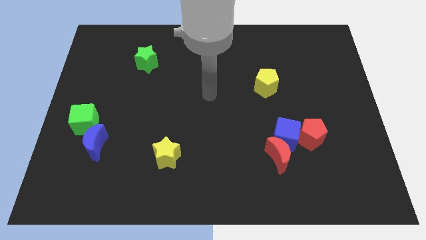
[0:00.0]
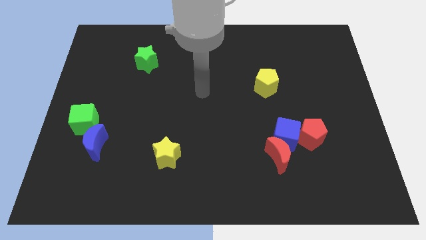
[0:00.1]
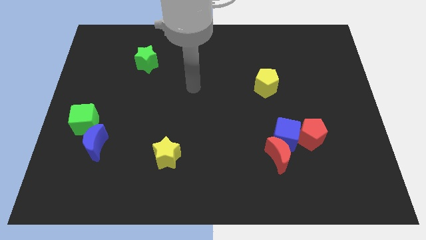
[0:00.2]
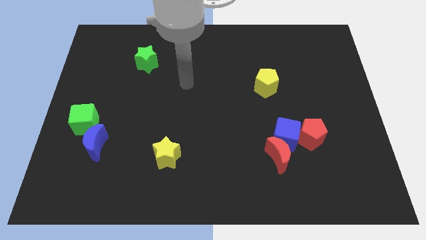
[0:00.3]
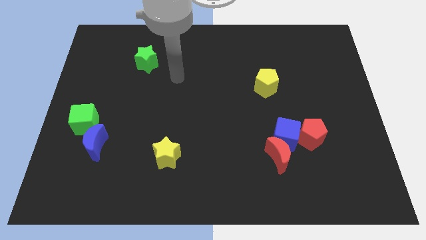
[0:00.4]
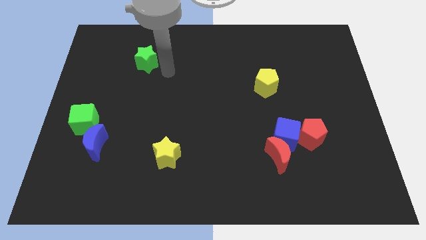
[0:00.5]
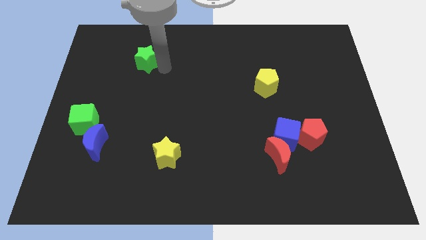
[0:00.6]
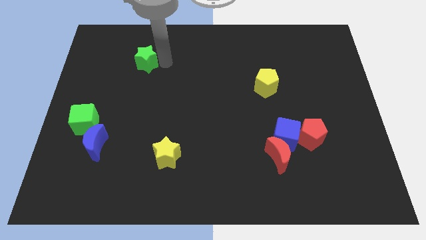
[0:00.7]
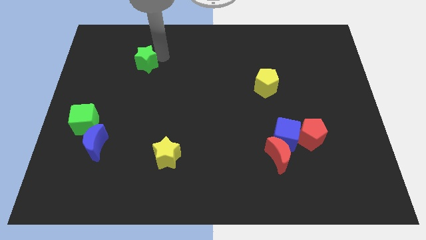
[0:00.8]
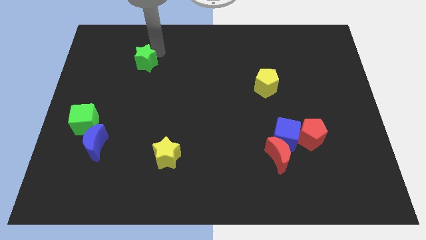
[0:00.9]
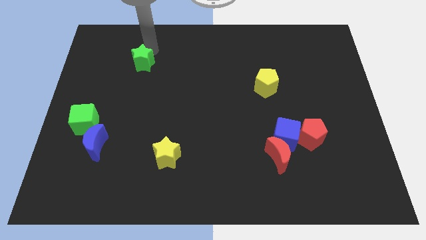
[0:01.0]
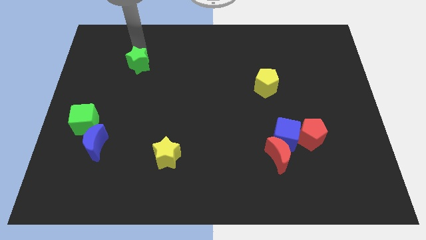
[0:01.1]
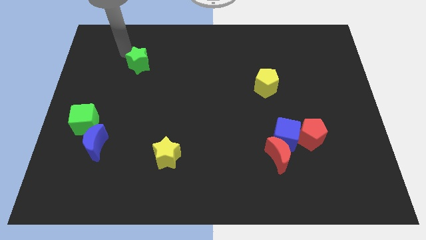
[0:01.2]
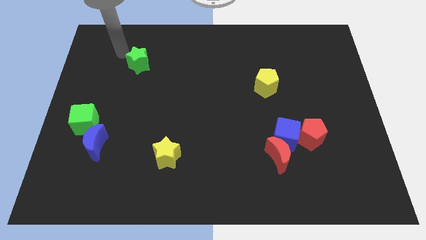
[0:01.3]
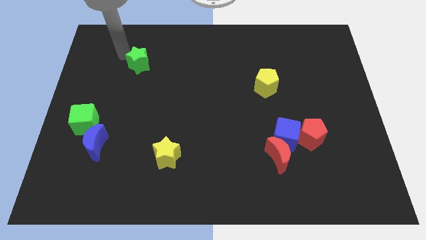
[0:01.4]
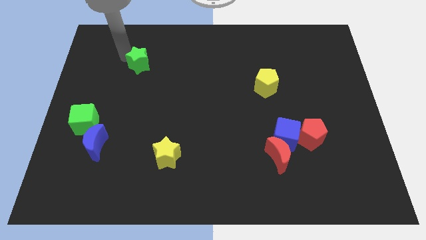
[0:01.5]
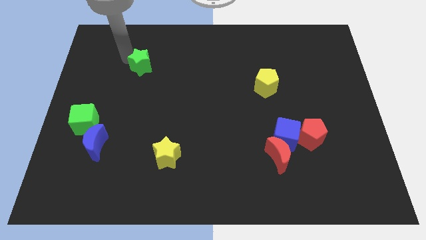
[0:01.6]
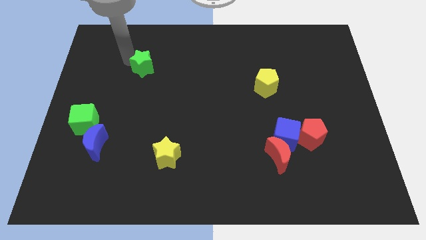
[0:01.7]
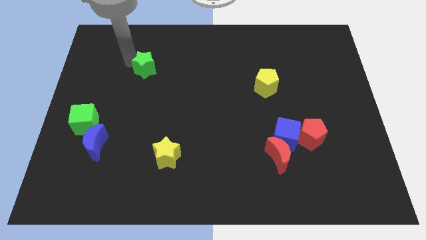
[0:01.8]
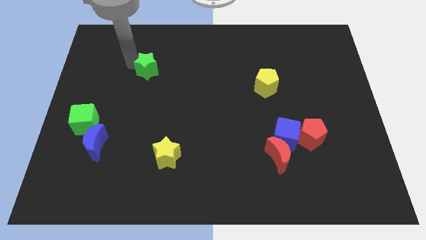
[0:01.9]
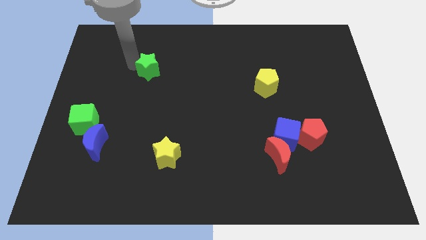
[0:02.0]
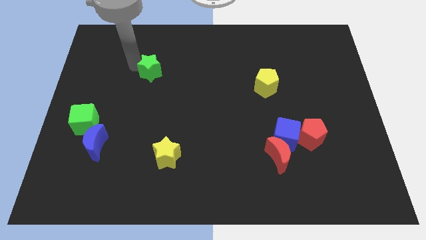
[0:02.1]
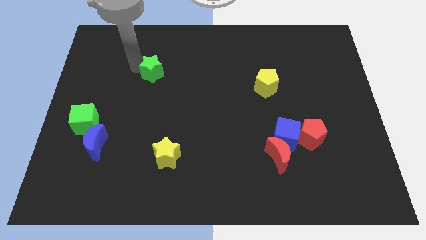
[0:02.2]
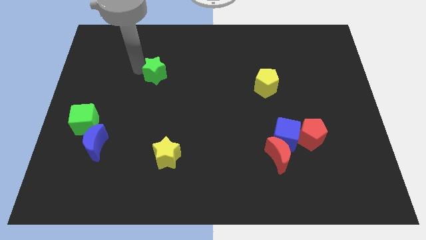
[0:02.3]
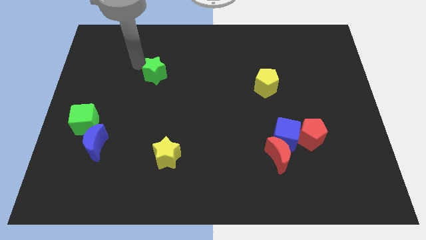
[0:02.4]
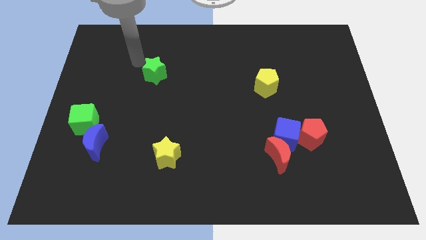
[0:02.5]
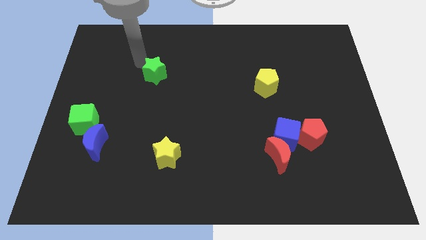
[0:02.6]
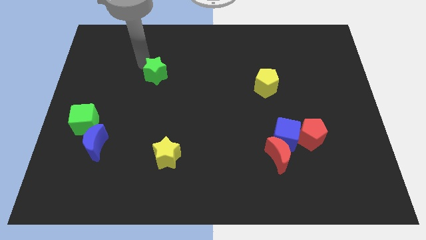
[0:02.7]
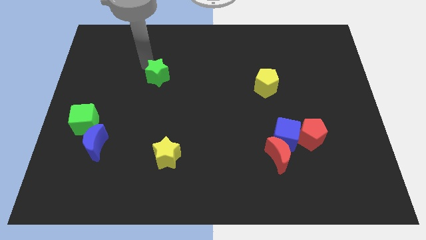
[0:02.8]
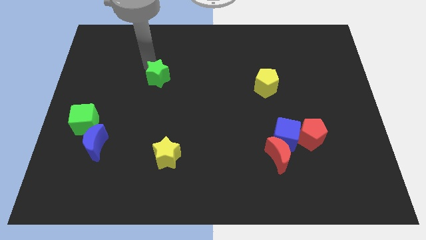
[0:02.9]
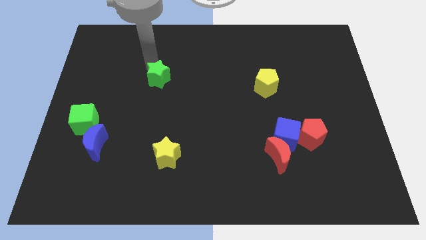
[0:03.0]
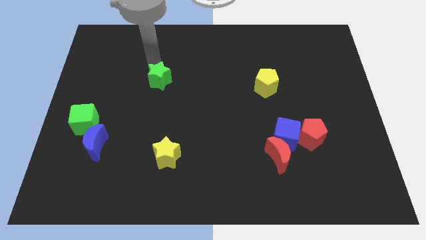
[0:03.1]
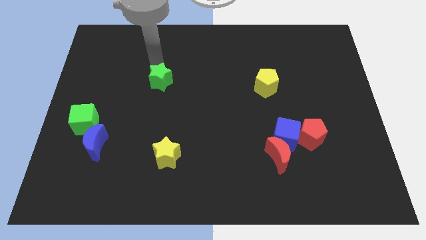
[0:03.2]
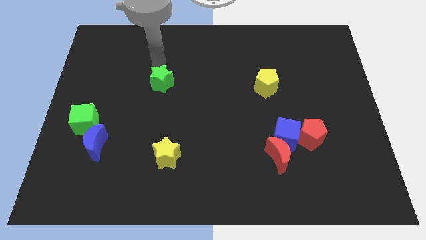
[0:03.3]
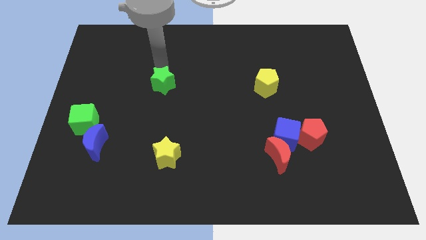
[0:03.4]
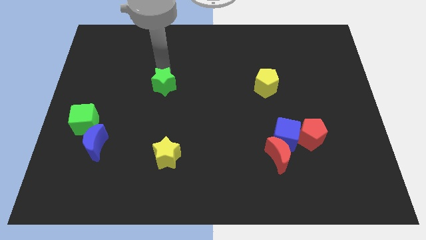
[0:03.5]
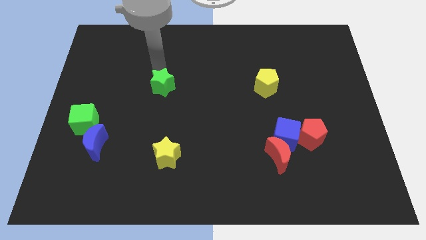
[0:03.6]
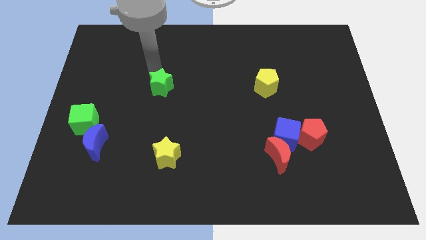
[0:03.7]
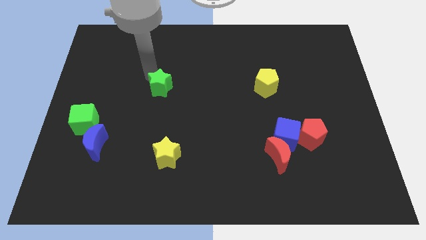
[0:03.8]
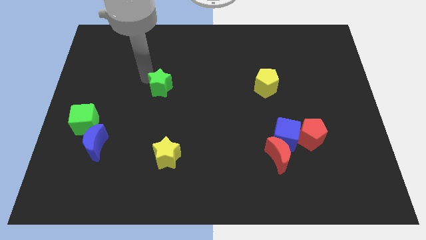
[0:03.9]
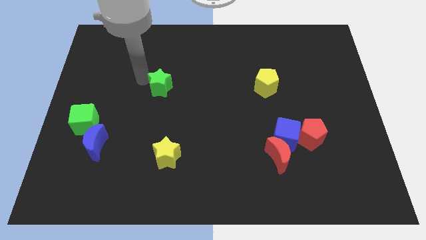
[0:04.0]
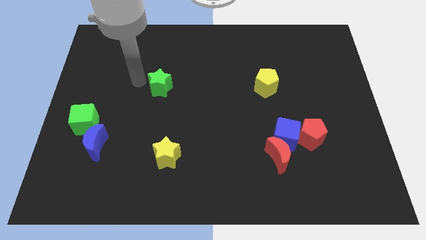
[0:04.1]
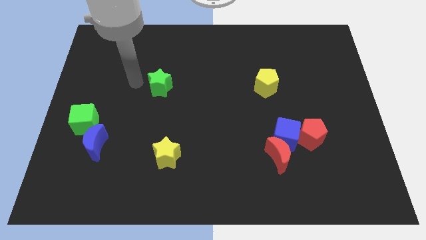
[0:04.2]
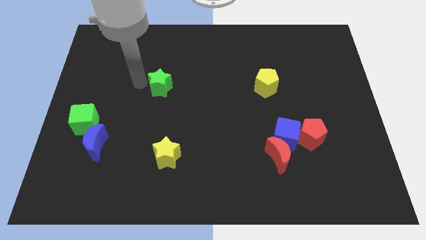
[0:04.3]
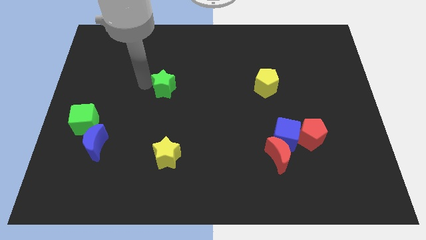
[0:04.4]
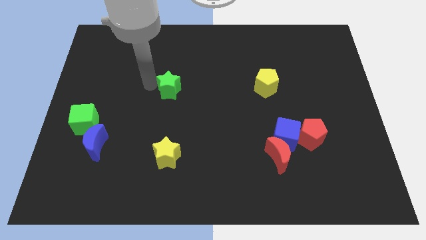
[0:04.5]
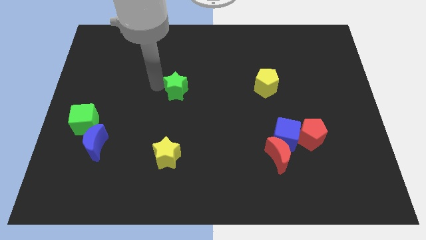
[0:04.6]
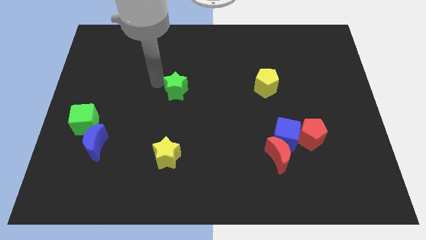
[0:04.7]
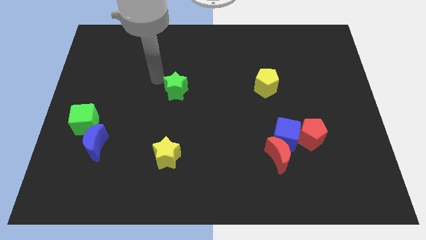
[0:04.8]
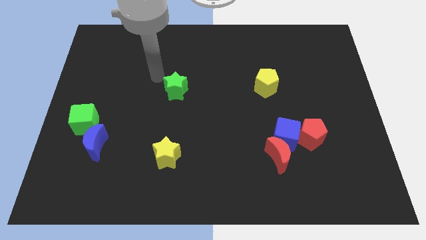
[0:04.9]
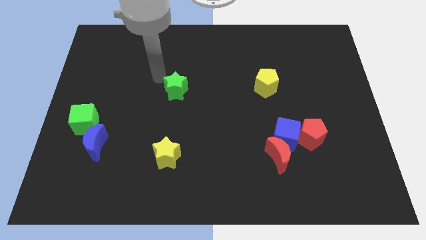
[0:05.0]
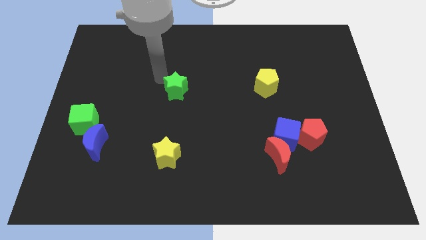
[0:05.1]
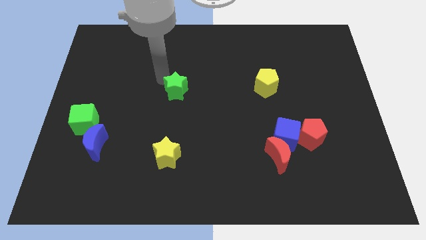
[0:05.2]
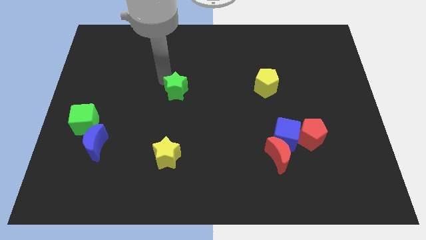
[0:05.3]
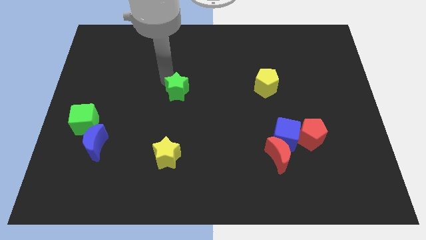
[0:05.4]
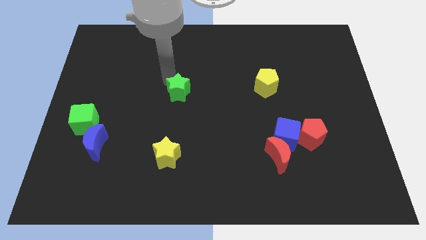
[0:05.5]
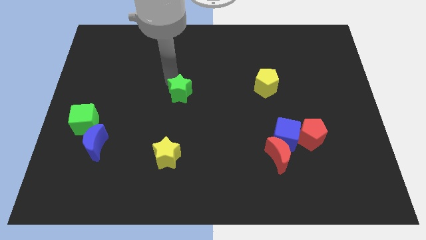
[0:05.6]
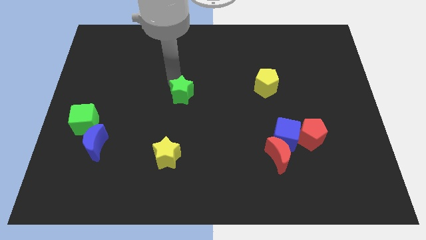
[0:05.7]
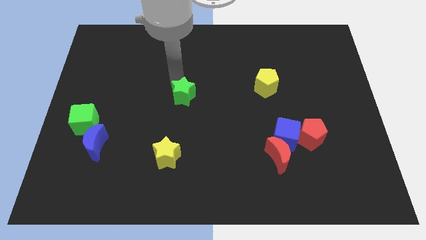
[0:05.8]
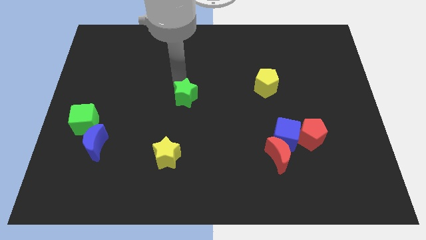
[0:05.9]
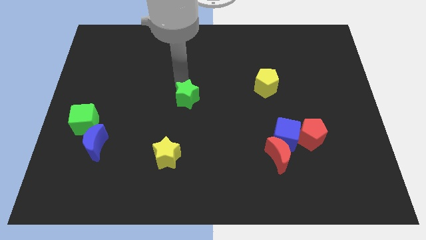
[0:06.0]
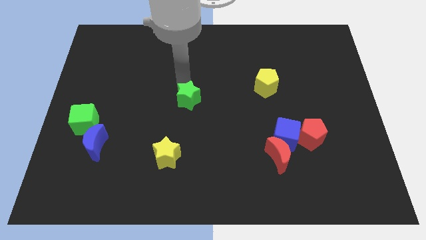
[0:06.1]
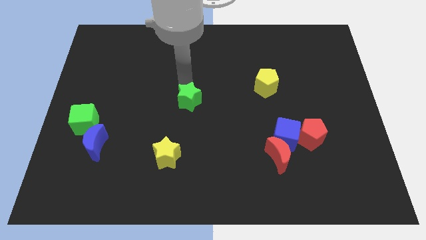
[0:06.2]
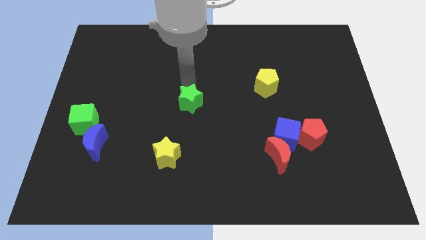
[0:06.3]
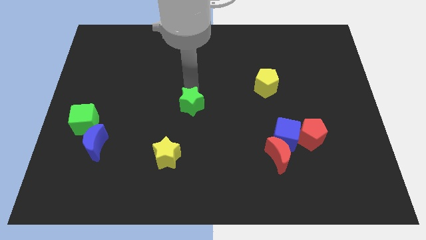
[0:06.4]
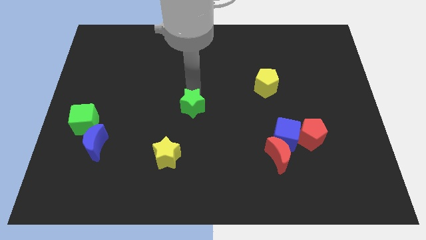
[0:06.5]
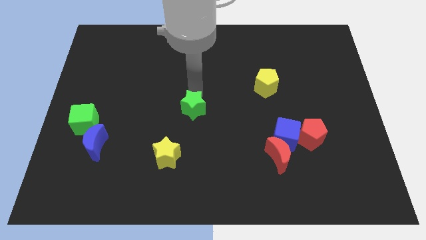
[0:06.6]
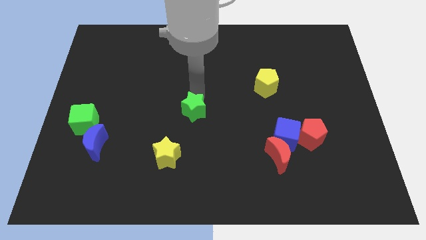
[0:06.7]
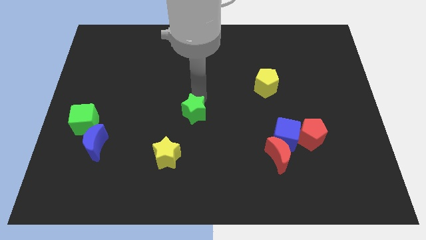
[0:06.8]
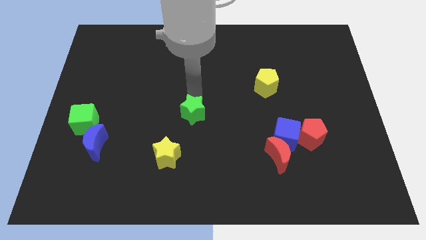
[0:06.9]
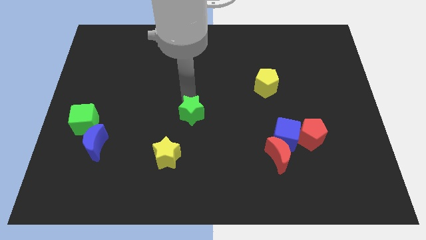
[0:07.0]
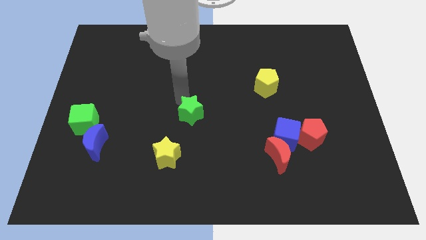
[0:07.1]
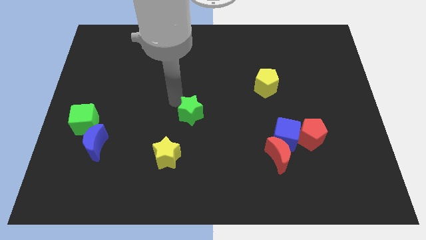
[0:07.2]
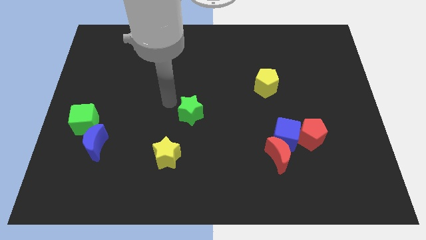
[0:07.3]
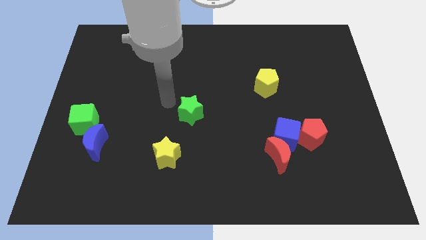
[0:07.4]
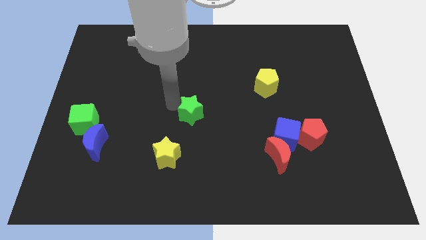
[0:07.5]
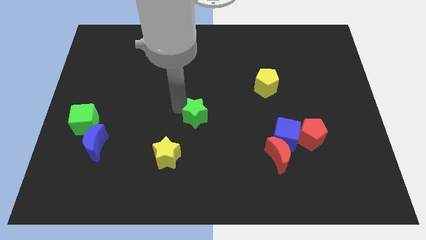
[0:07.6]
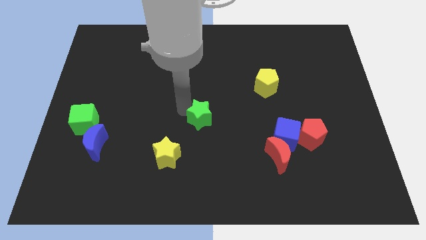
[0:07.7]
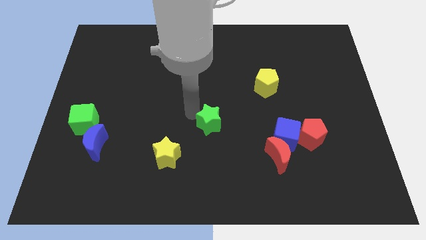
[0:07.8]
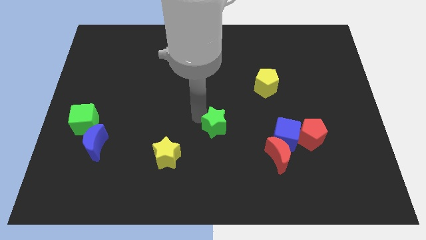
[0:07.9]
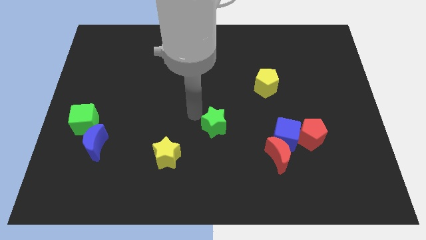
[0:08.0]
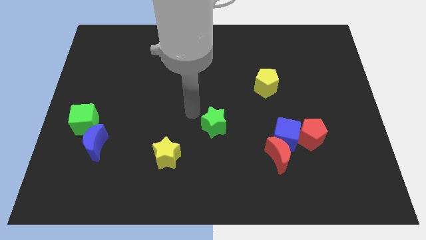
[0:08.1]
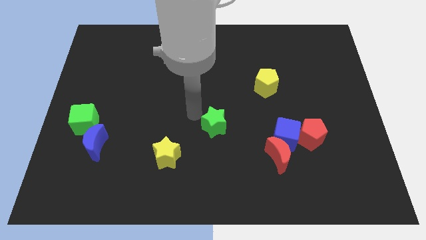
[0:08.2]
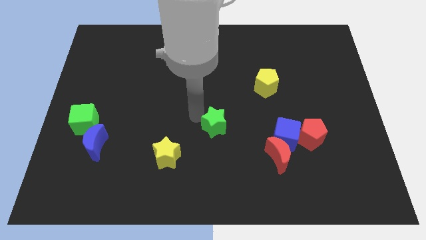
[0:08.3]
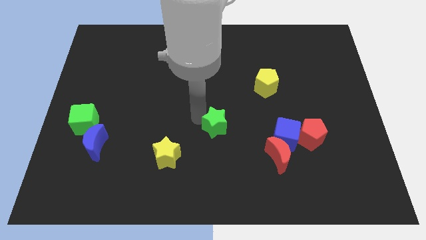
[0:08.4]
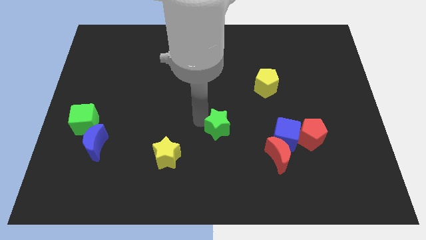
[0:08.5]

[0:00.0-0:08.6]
slide the green star left of the blue cube
